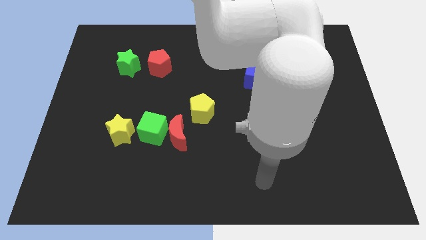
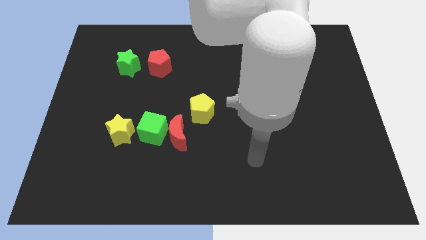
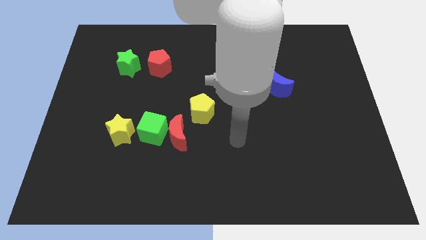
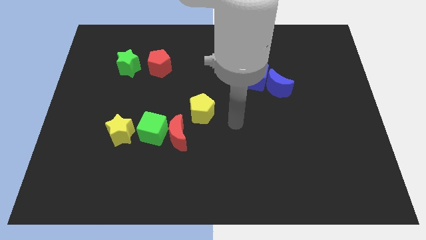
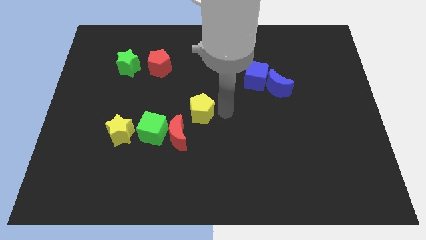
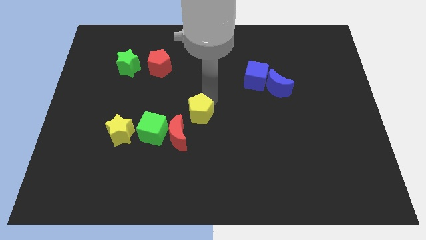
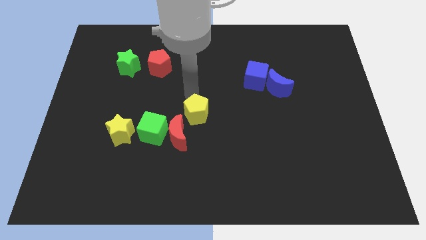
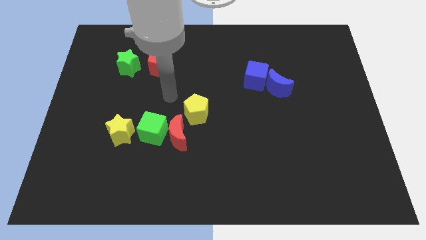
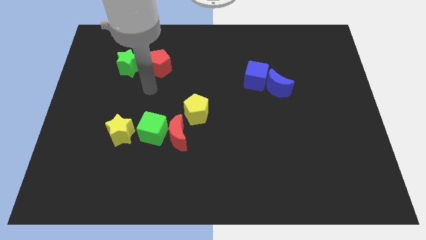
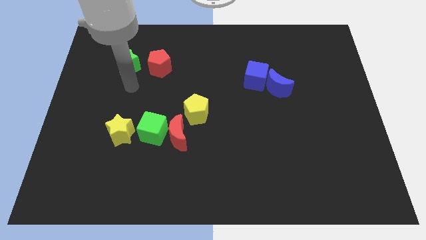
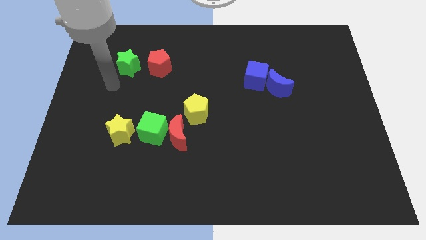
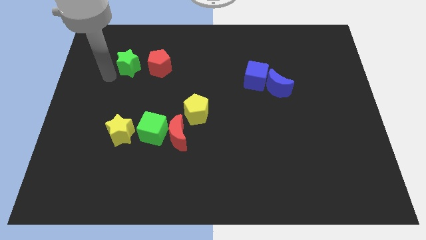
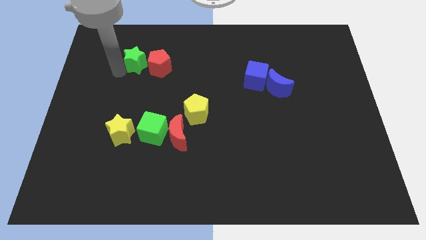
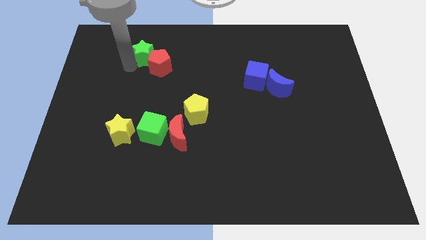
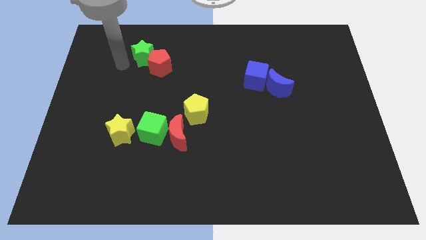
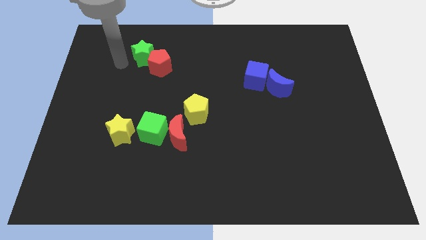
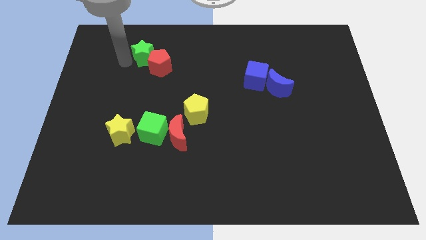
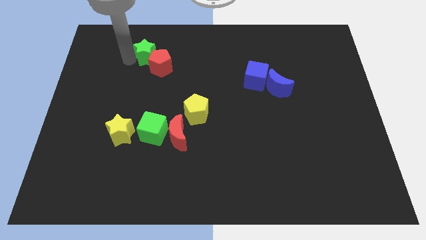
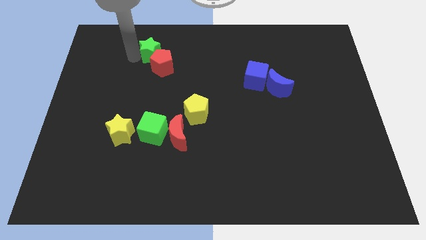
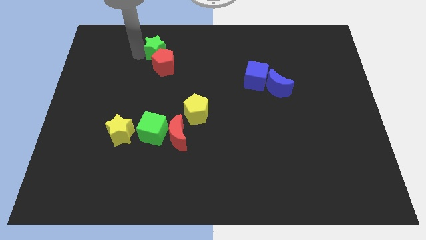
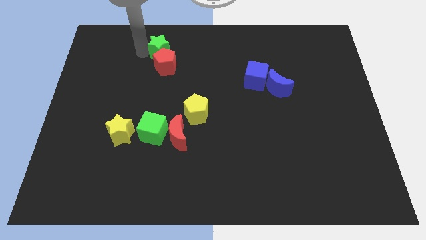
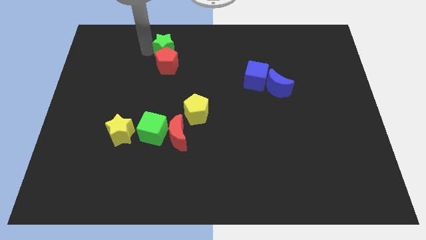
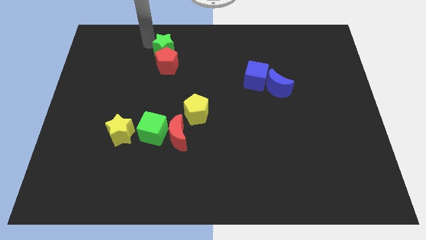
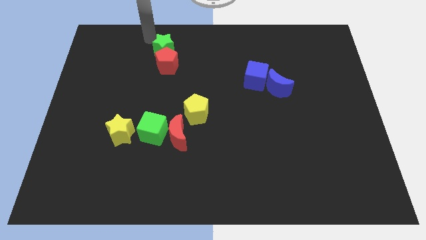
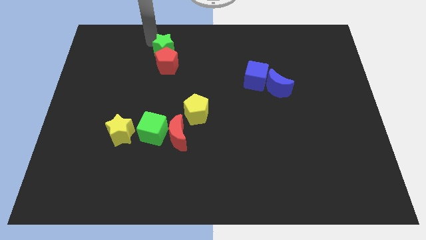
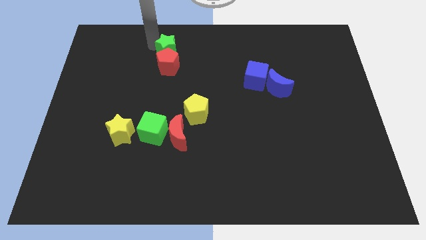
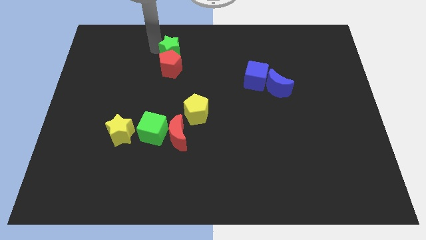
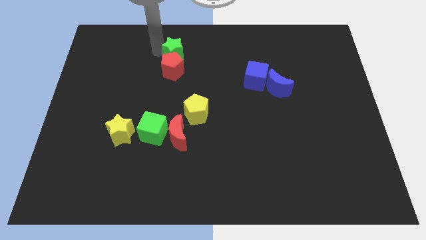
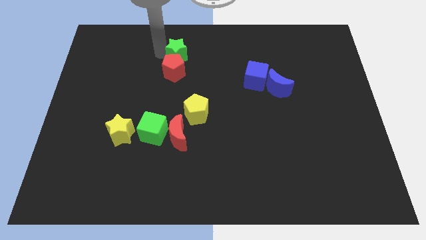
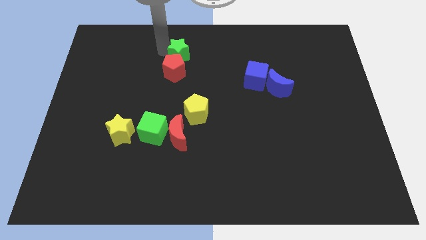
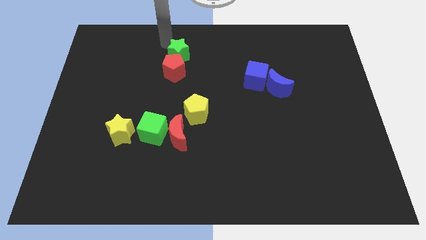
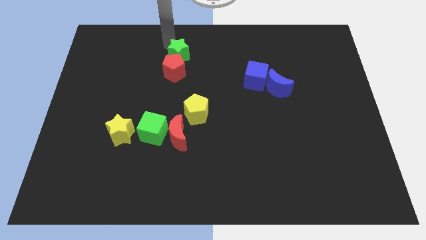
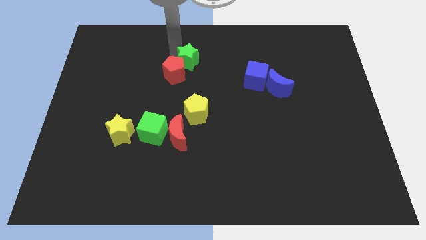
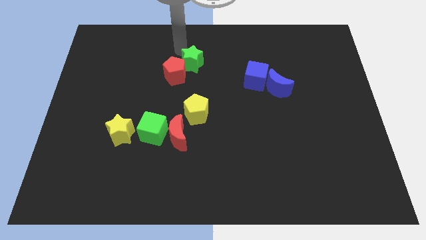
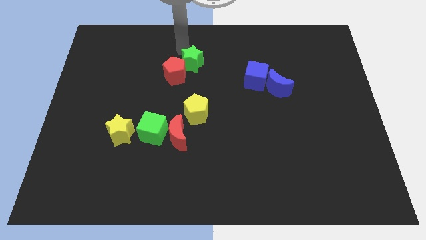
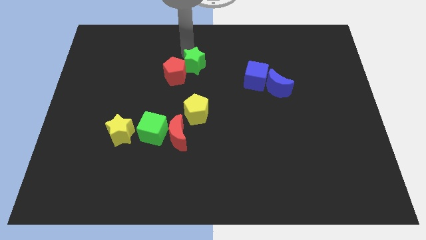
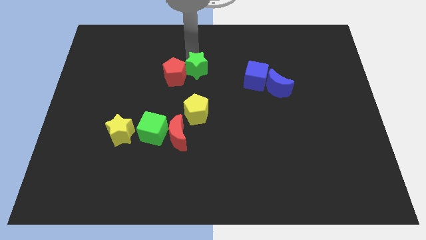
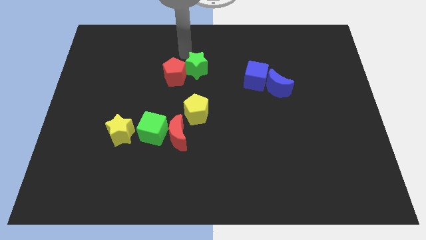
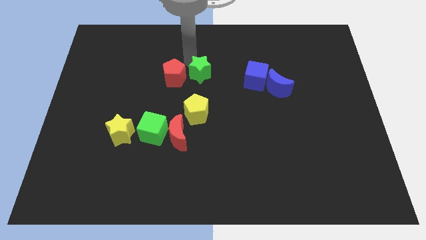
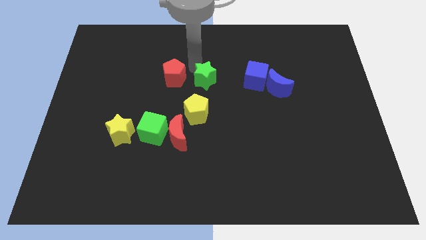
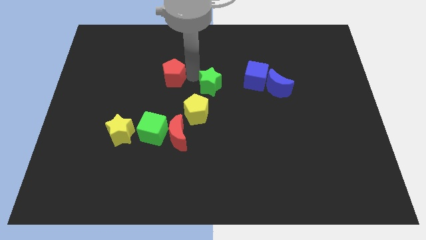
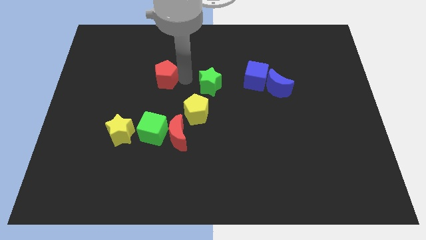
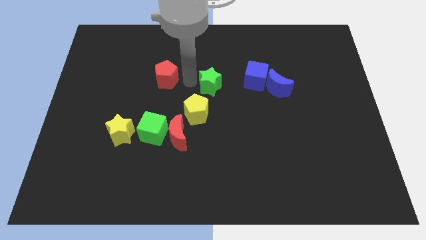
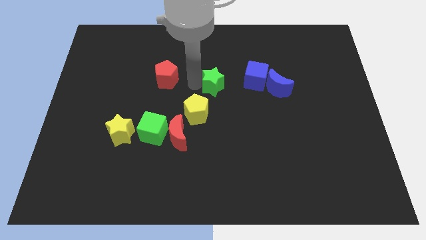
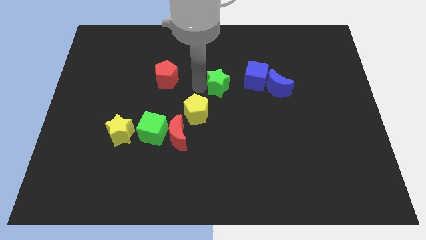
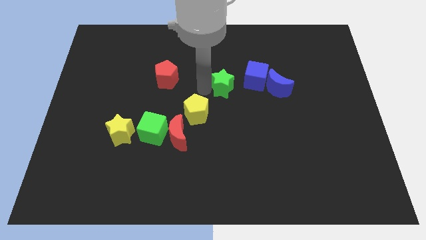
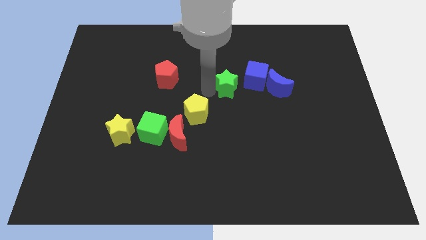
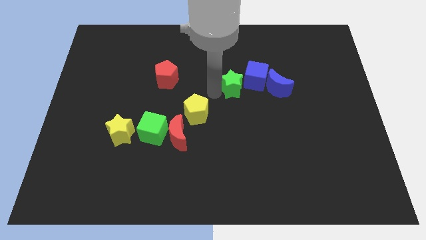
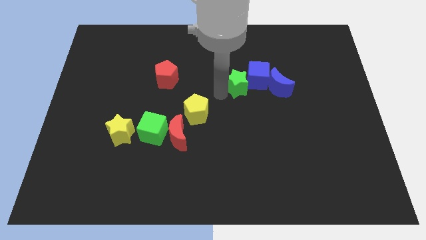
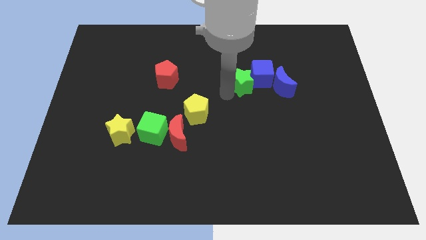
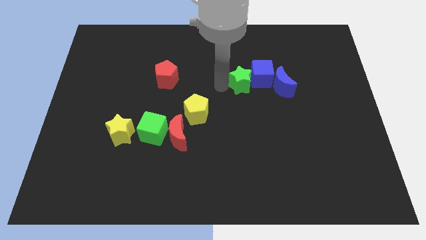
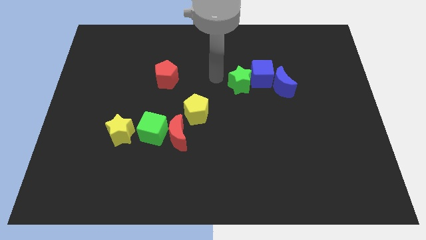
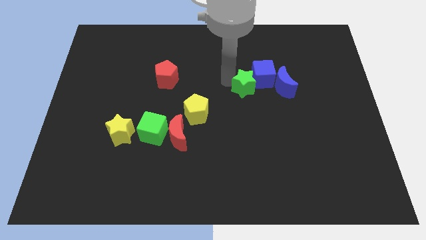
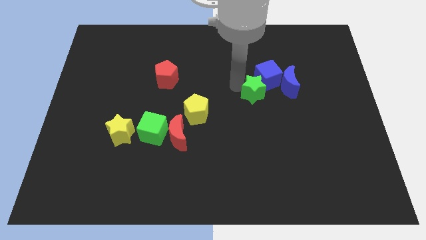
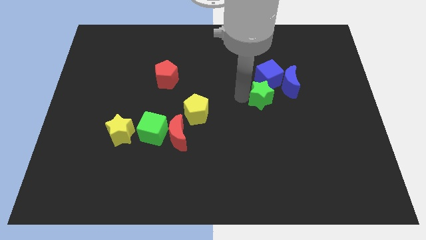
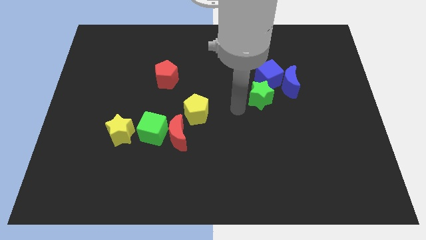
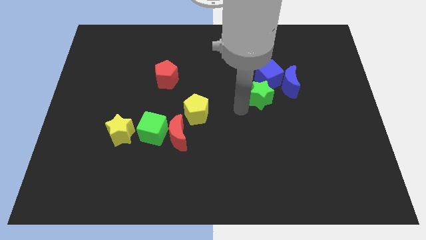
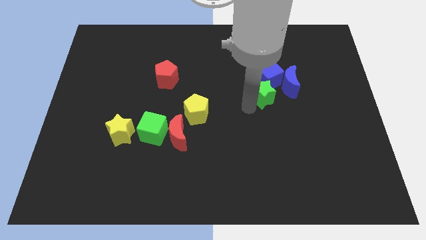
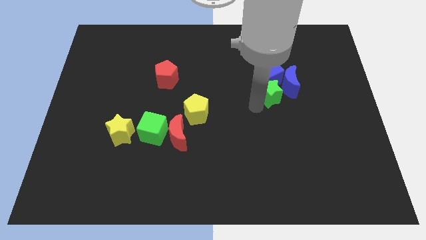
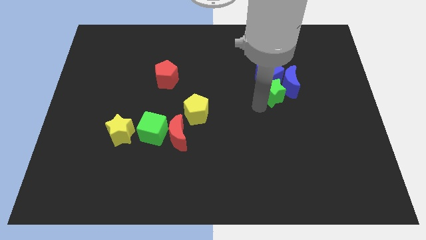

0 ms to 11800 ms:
push the green star close to the blue moon

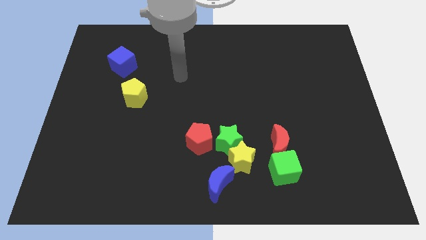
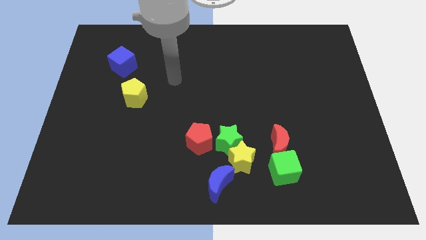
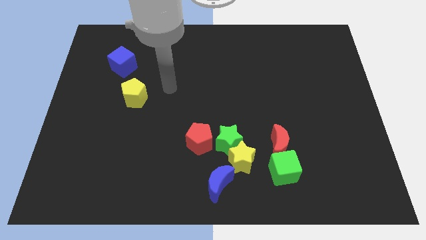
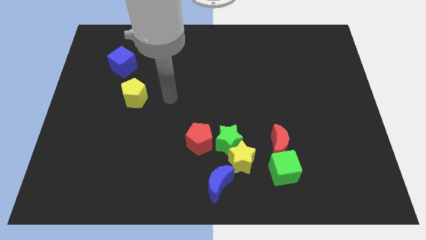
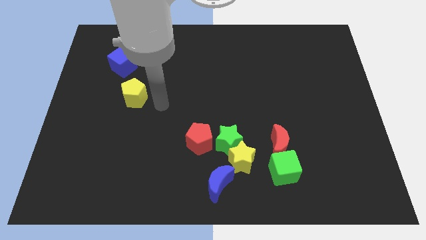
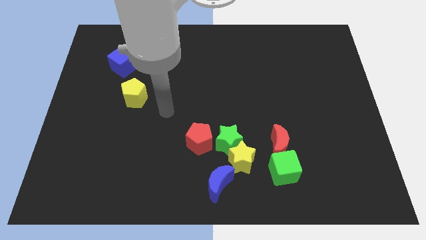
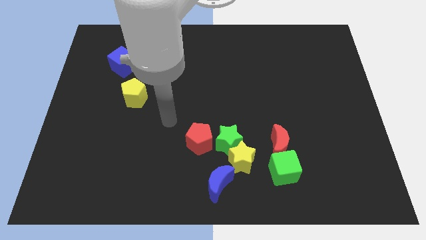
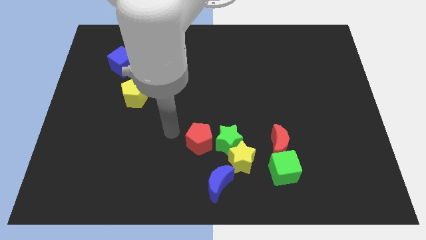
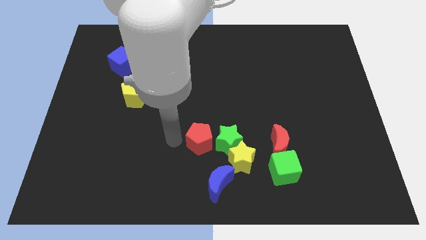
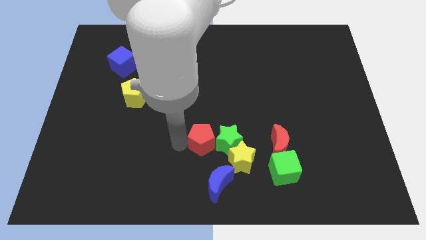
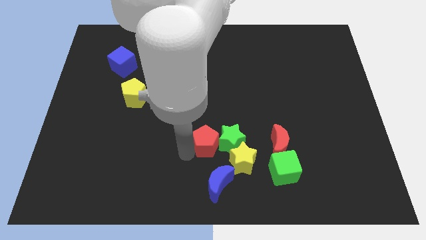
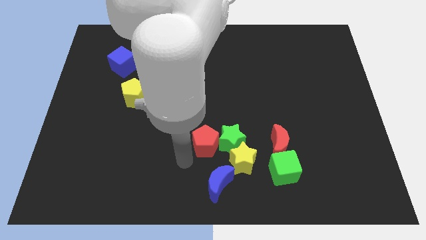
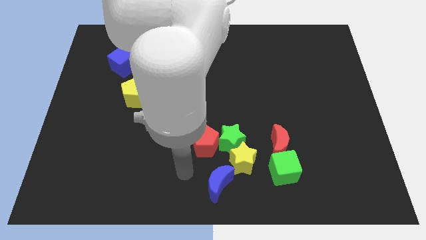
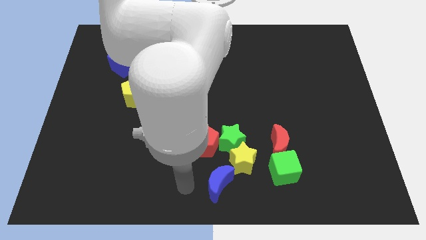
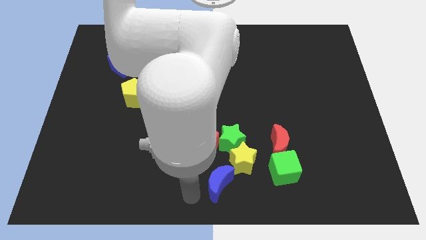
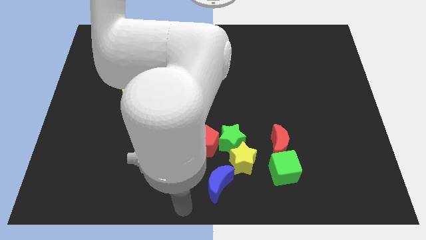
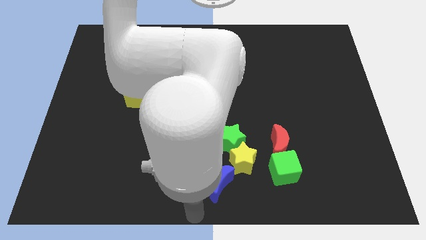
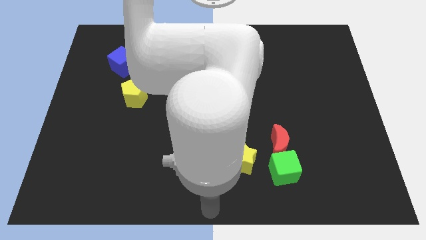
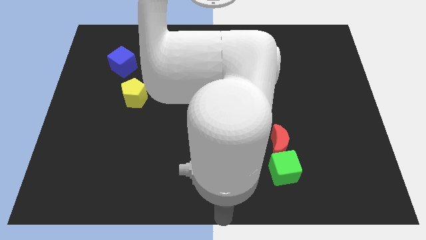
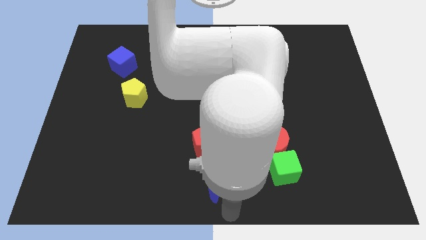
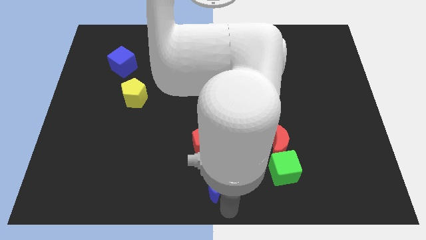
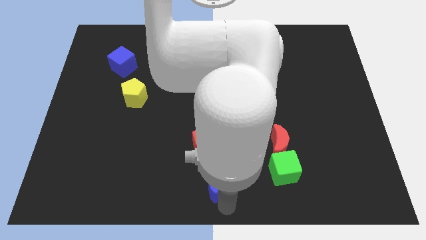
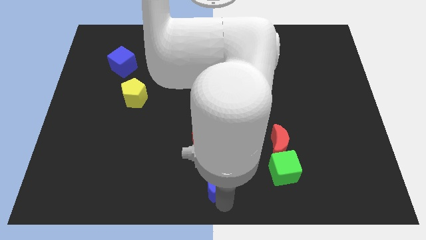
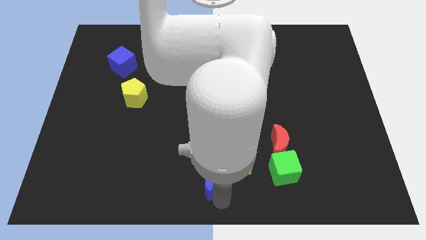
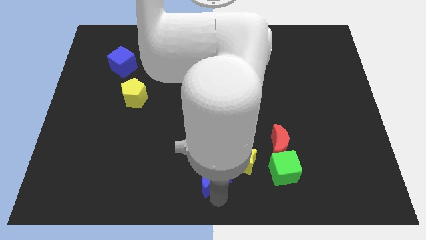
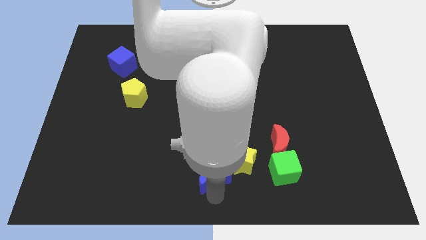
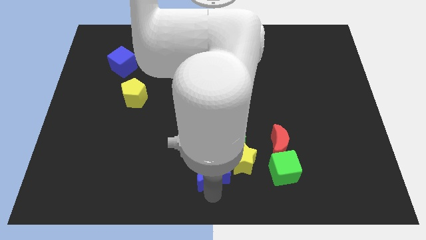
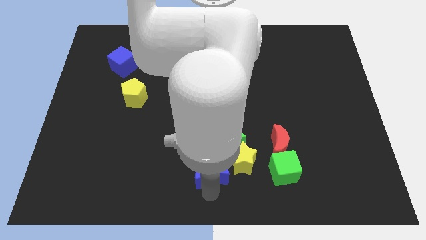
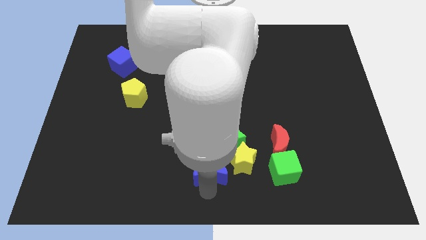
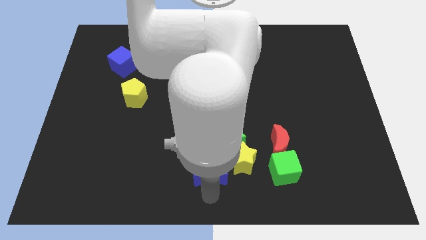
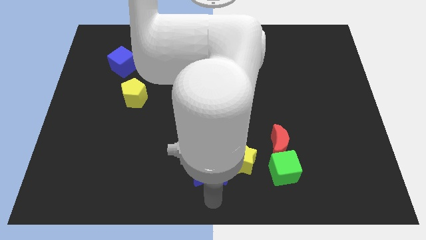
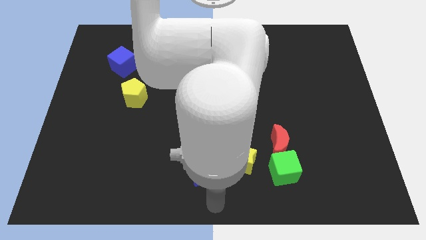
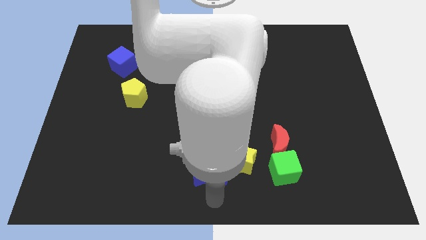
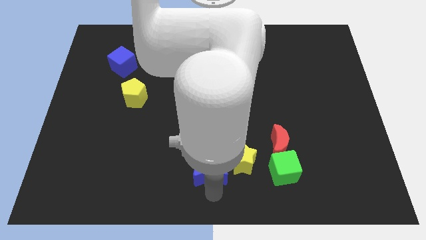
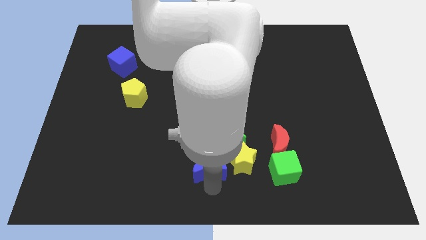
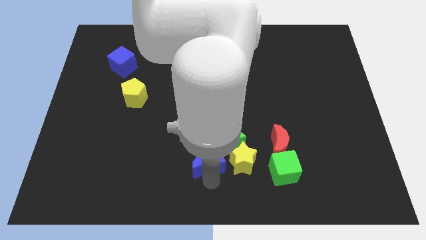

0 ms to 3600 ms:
put the blue moon next to the red pentagon
